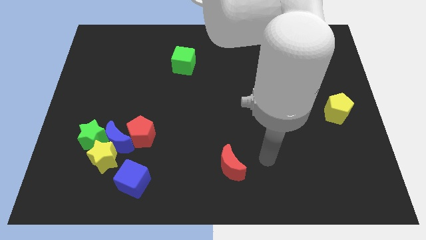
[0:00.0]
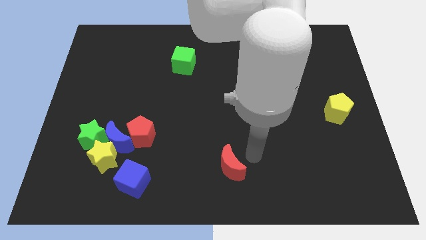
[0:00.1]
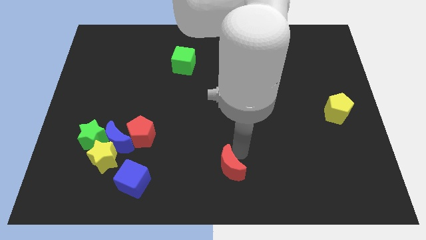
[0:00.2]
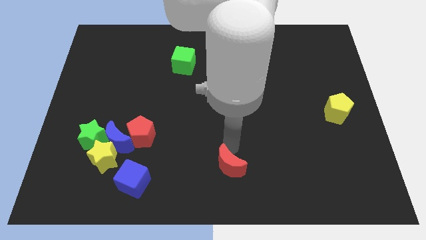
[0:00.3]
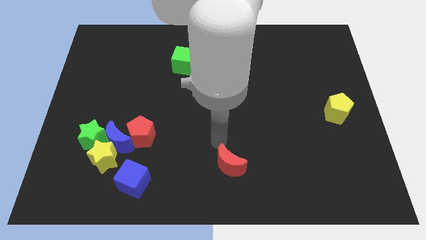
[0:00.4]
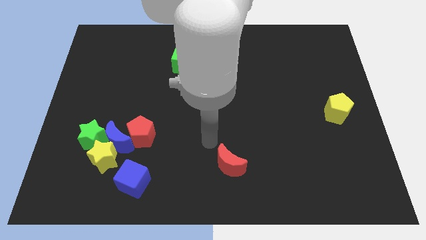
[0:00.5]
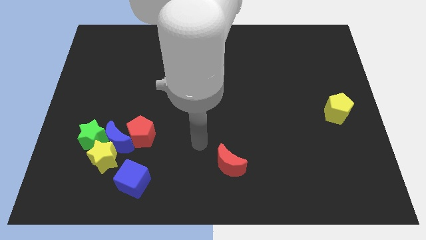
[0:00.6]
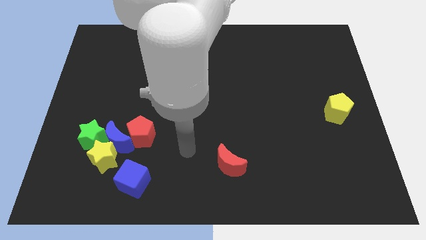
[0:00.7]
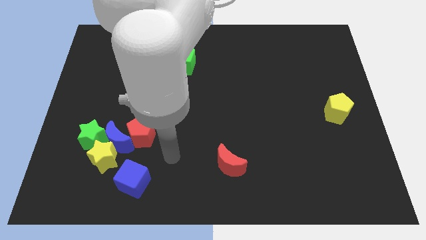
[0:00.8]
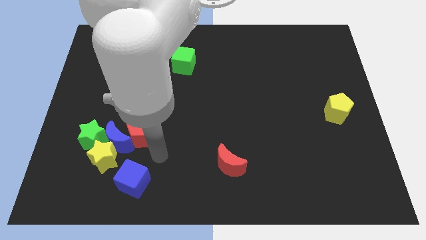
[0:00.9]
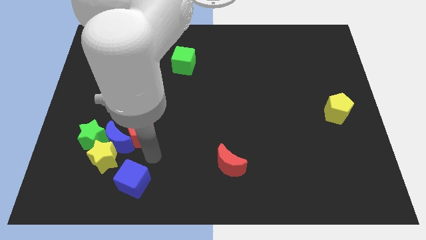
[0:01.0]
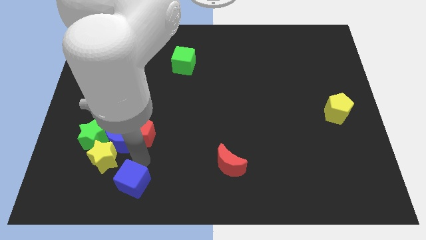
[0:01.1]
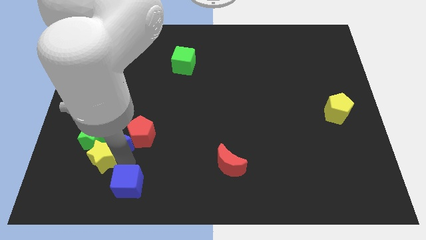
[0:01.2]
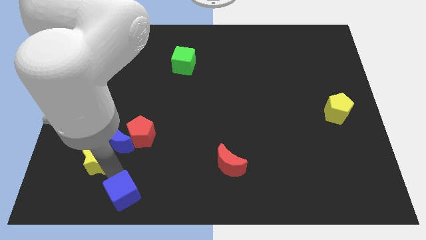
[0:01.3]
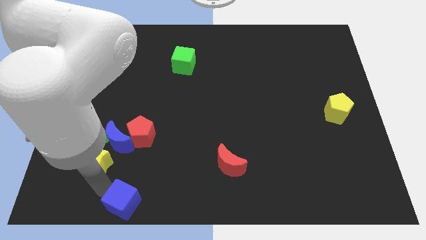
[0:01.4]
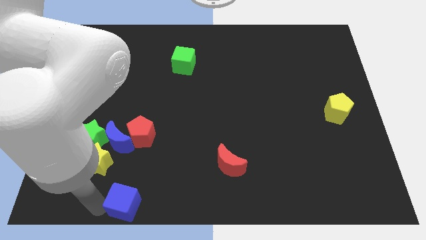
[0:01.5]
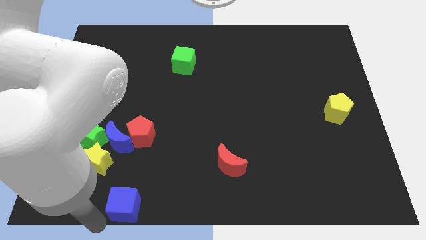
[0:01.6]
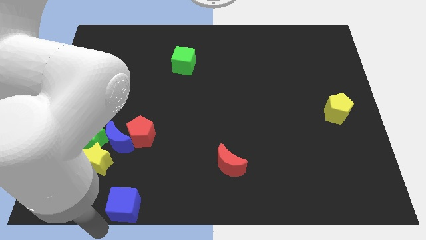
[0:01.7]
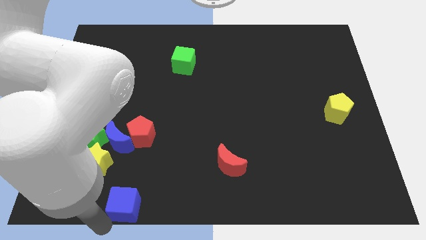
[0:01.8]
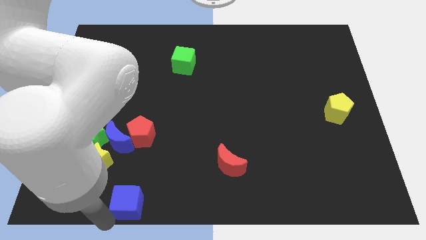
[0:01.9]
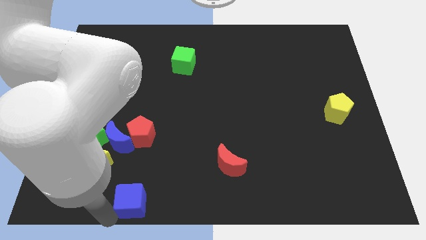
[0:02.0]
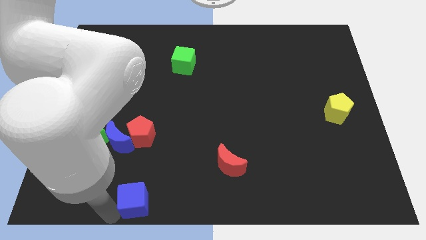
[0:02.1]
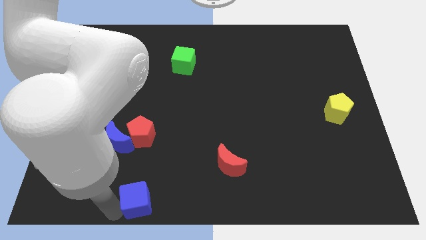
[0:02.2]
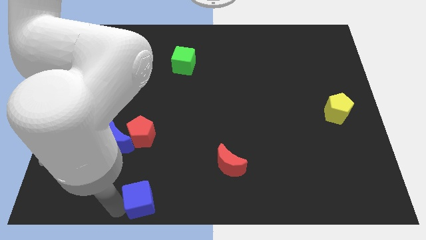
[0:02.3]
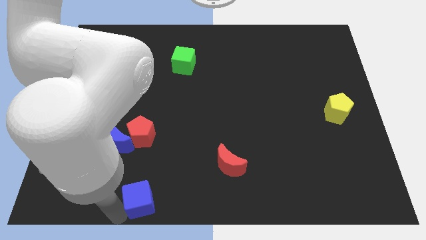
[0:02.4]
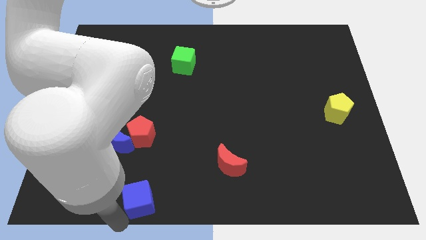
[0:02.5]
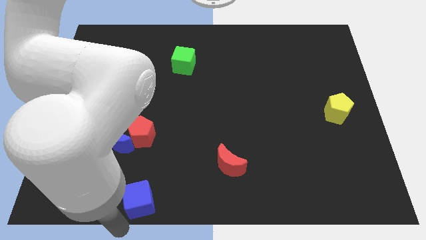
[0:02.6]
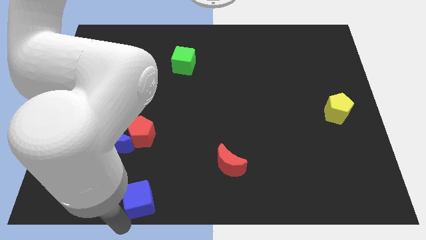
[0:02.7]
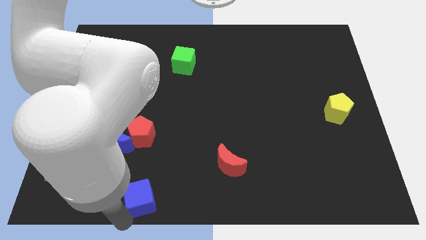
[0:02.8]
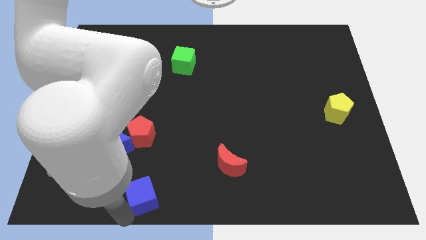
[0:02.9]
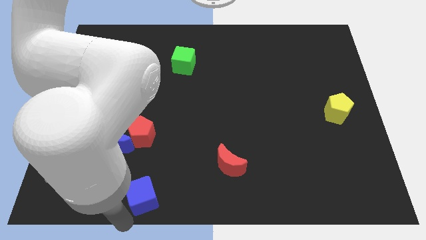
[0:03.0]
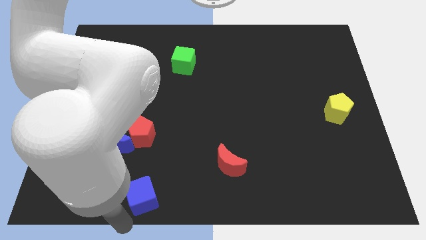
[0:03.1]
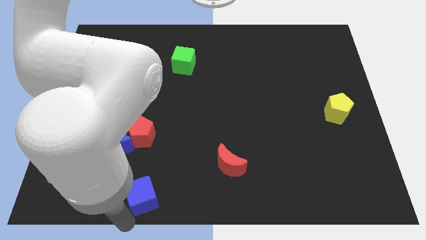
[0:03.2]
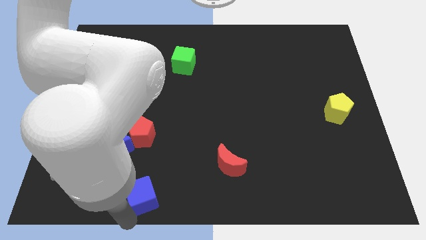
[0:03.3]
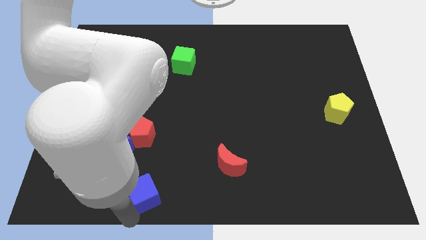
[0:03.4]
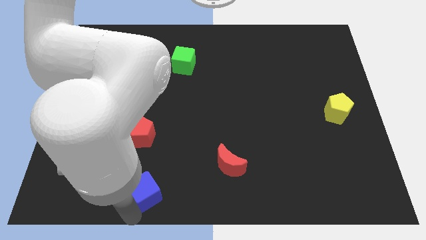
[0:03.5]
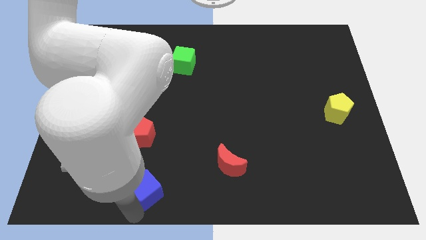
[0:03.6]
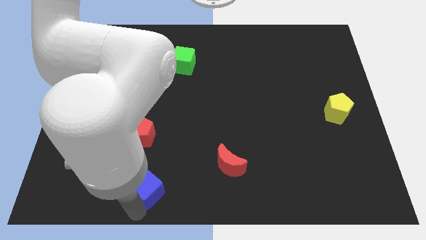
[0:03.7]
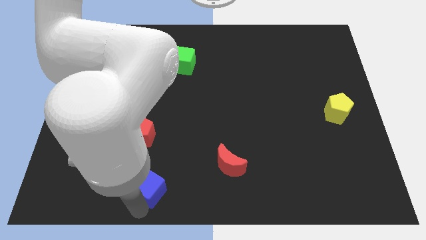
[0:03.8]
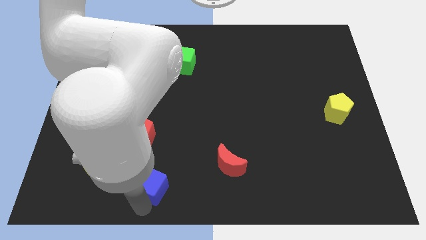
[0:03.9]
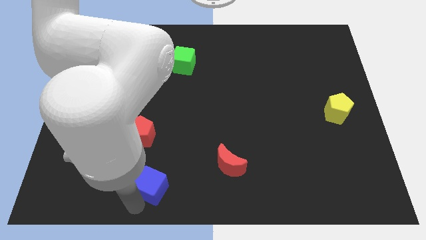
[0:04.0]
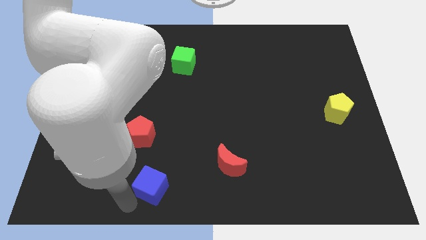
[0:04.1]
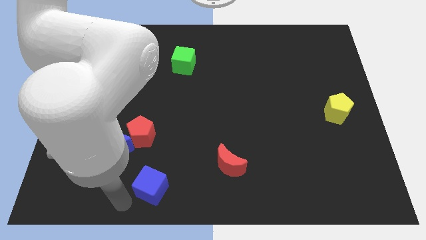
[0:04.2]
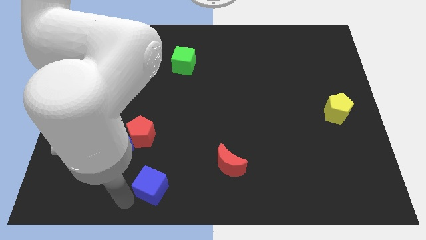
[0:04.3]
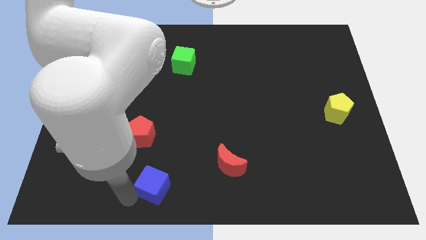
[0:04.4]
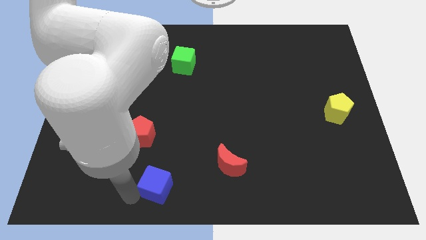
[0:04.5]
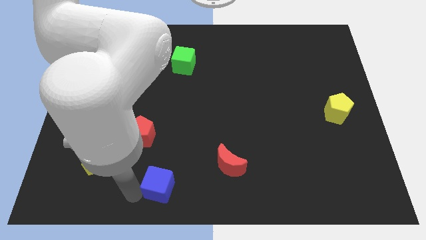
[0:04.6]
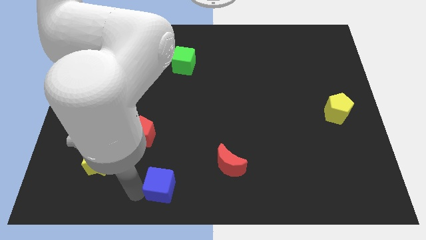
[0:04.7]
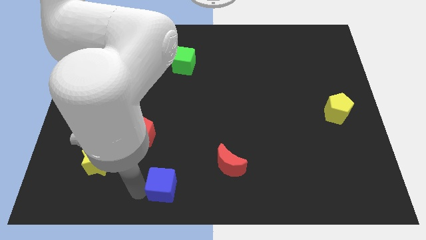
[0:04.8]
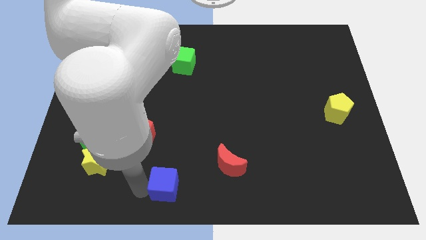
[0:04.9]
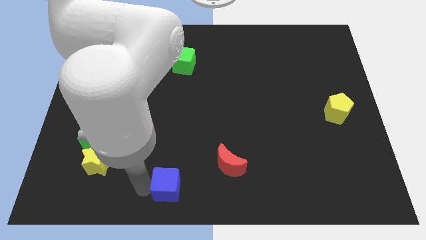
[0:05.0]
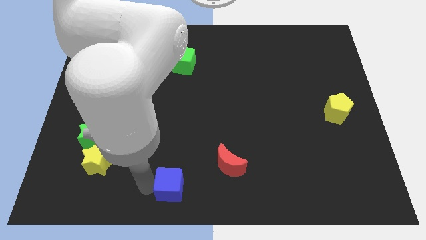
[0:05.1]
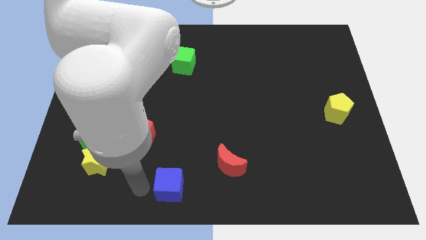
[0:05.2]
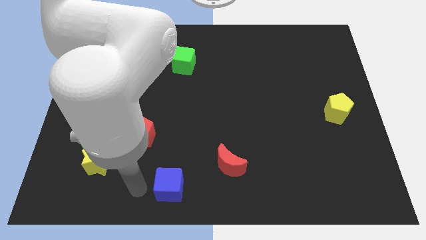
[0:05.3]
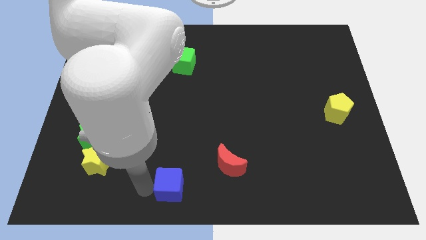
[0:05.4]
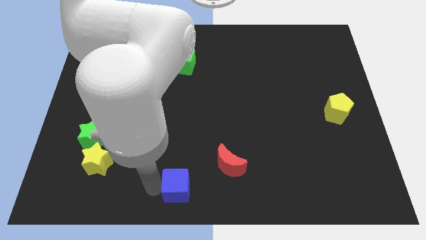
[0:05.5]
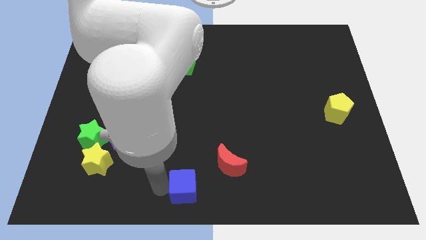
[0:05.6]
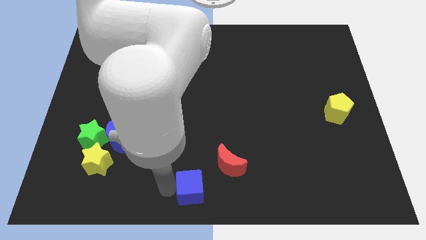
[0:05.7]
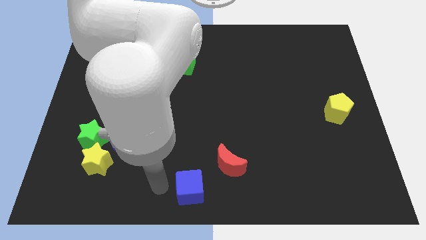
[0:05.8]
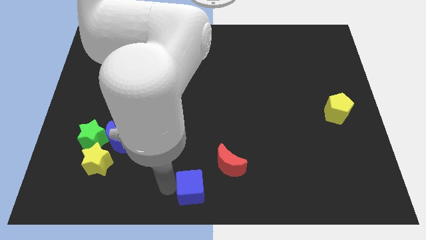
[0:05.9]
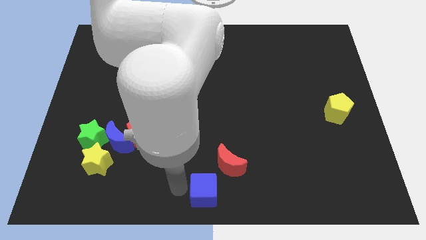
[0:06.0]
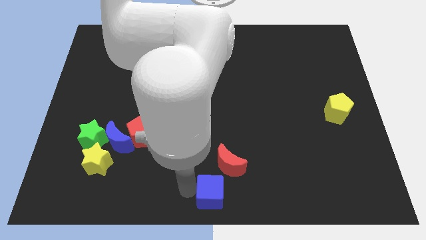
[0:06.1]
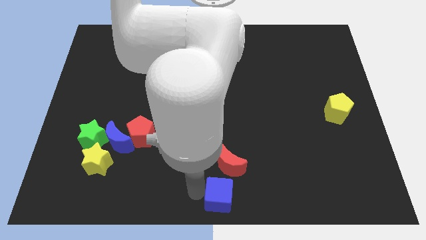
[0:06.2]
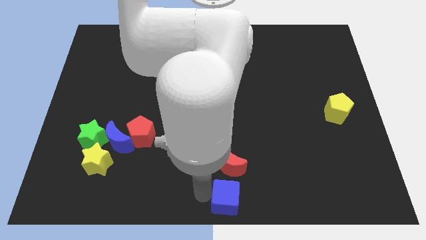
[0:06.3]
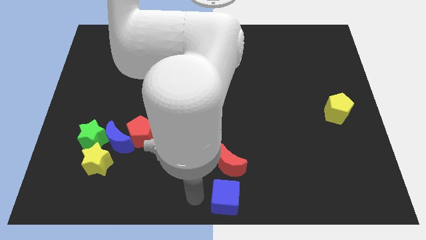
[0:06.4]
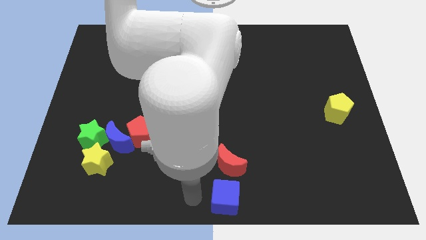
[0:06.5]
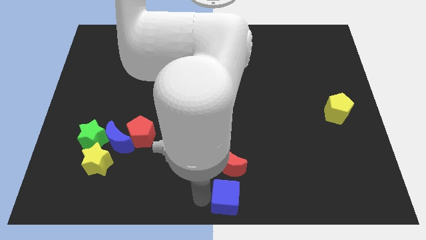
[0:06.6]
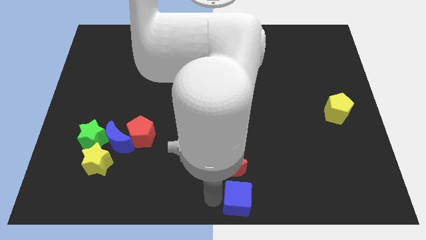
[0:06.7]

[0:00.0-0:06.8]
slide the blue cube to the right

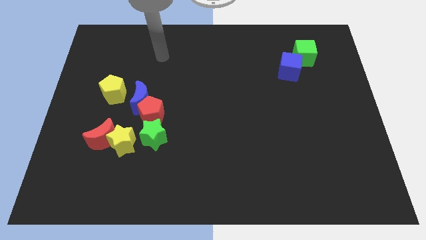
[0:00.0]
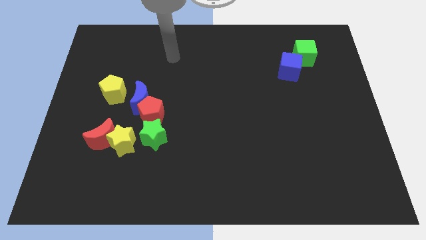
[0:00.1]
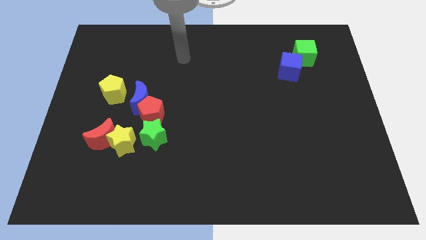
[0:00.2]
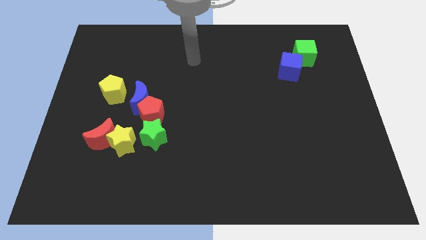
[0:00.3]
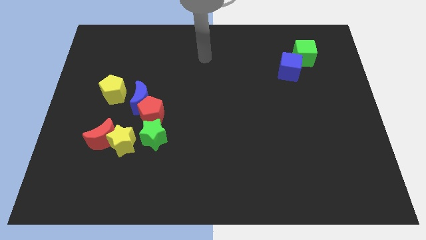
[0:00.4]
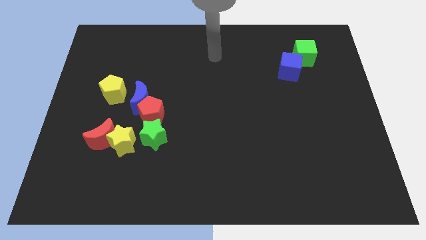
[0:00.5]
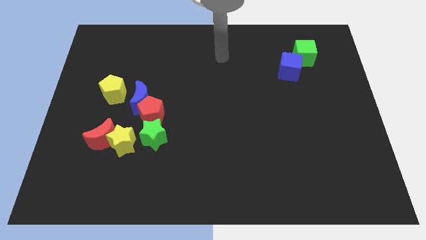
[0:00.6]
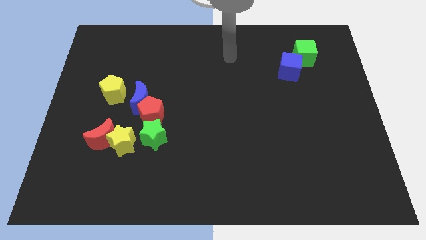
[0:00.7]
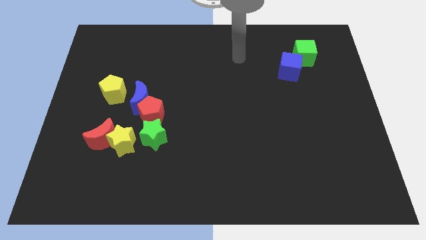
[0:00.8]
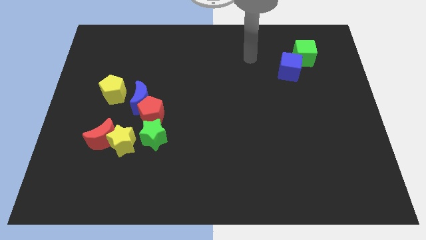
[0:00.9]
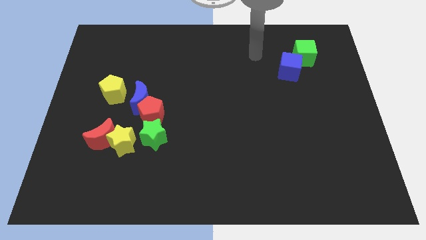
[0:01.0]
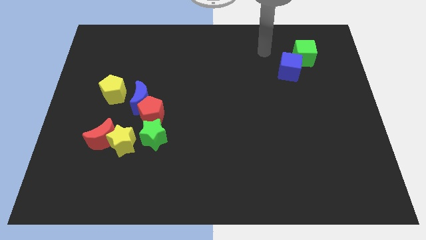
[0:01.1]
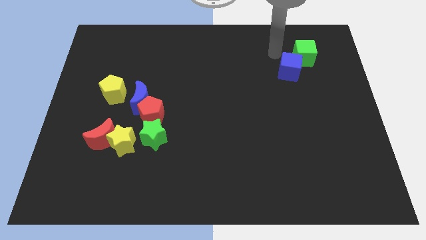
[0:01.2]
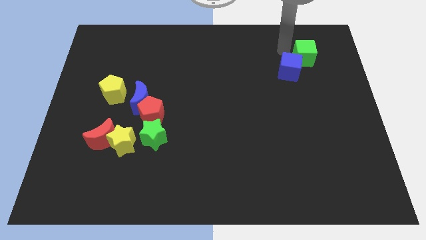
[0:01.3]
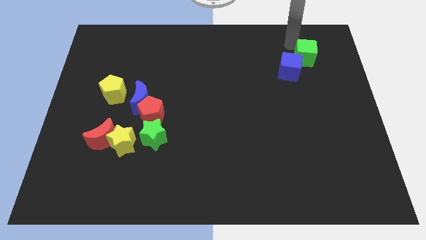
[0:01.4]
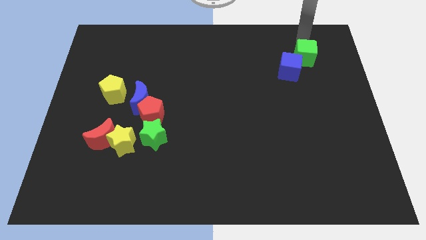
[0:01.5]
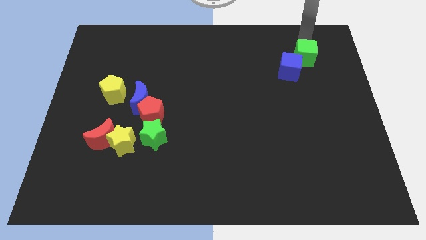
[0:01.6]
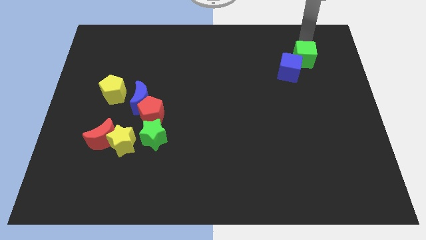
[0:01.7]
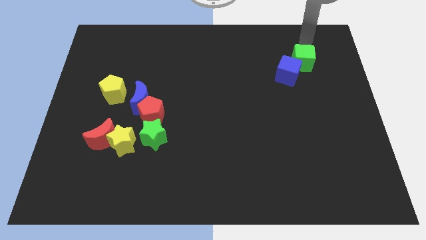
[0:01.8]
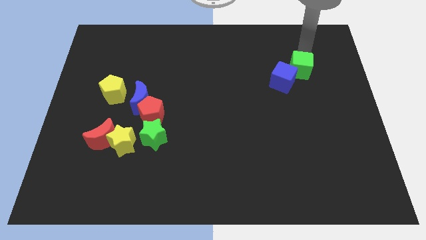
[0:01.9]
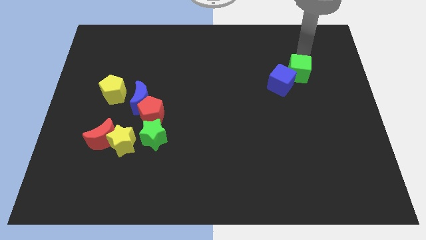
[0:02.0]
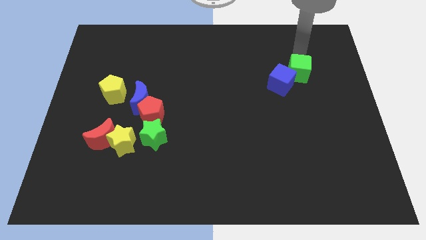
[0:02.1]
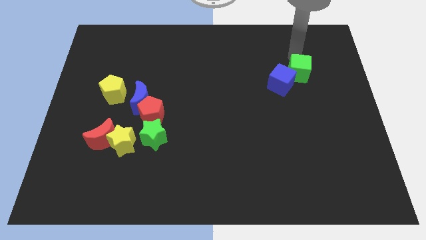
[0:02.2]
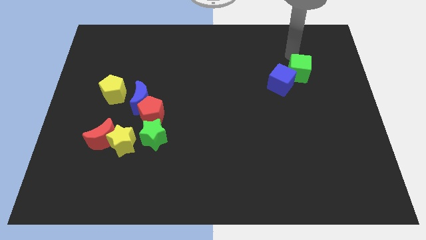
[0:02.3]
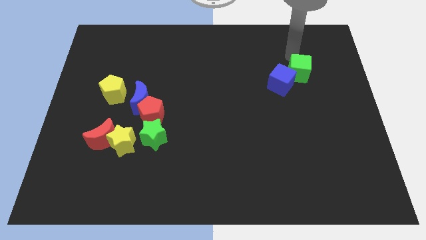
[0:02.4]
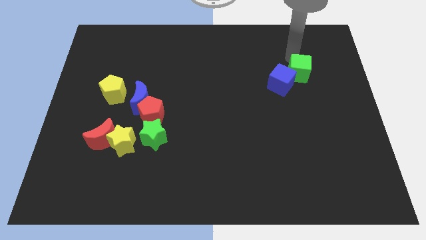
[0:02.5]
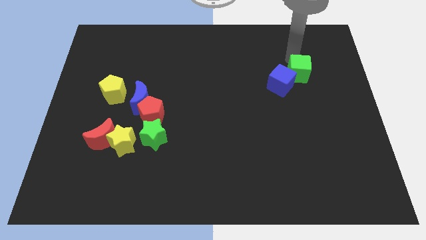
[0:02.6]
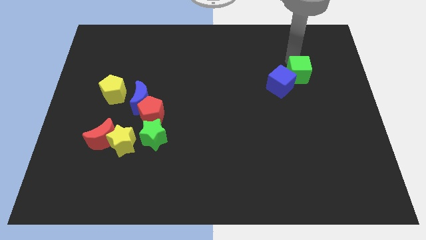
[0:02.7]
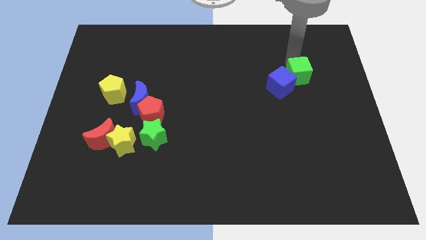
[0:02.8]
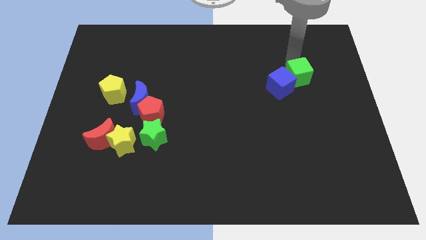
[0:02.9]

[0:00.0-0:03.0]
move the green cube somewhat down
